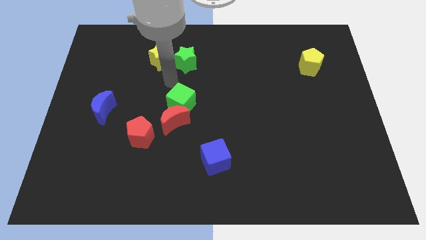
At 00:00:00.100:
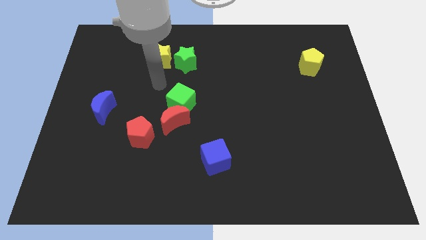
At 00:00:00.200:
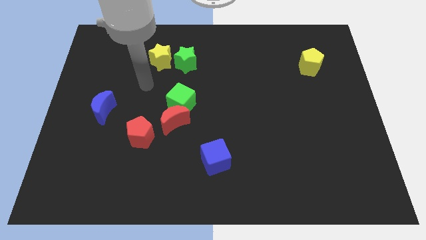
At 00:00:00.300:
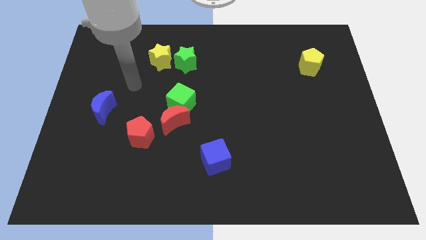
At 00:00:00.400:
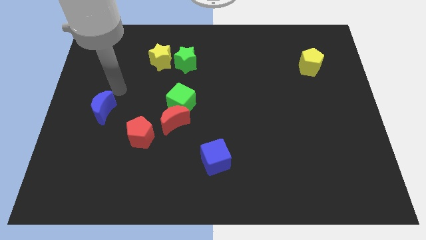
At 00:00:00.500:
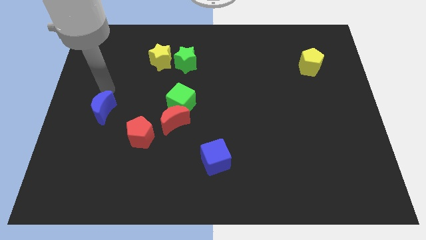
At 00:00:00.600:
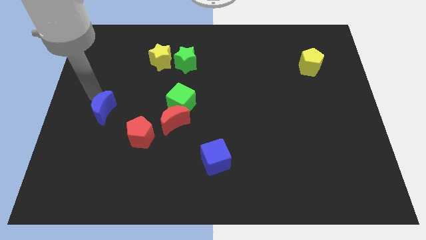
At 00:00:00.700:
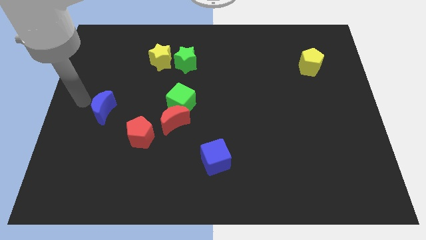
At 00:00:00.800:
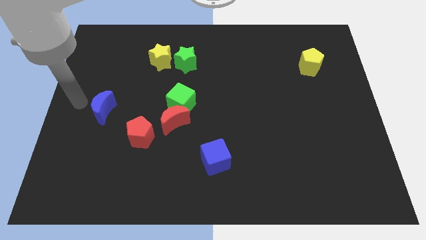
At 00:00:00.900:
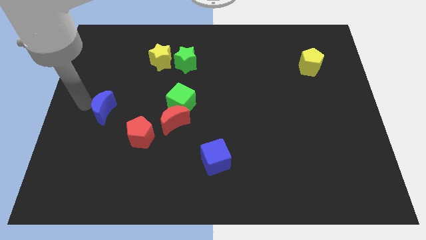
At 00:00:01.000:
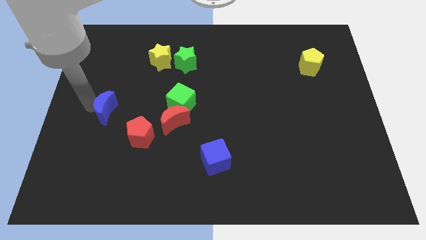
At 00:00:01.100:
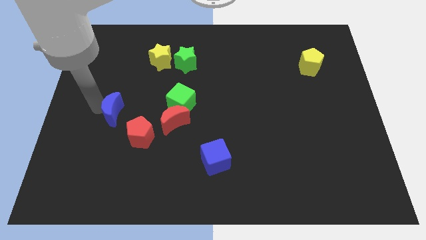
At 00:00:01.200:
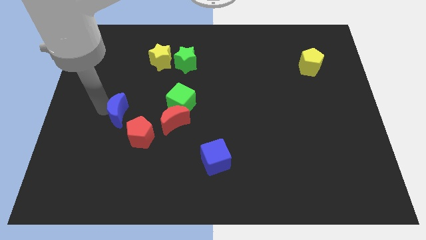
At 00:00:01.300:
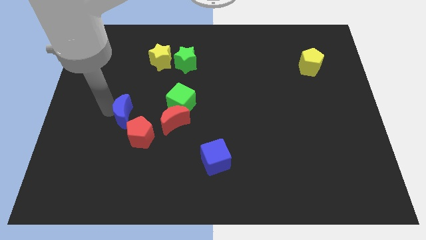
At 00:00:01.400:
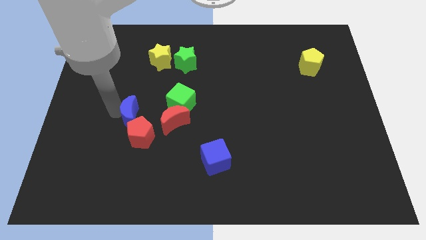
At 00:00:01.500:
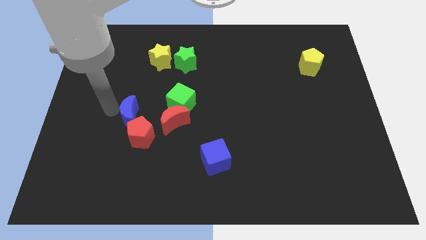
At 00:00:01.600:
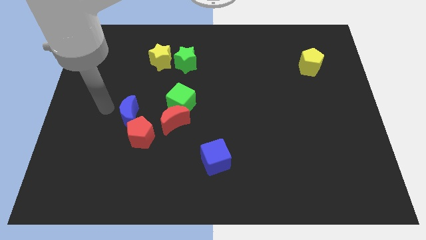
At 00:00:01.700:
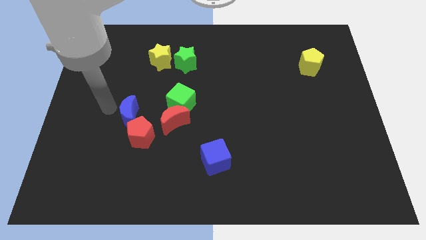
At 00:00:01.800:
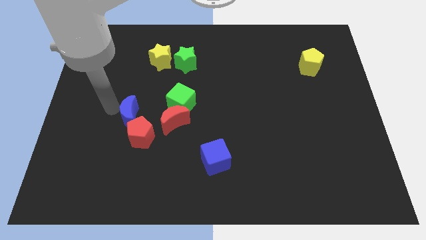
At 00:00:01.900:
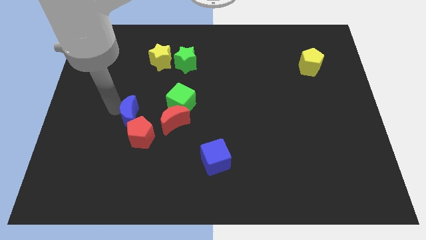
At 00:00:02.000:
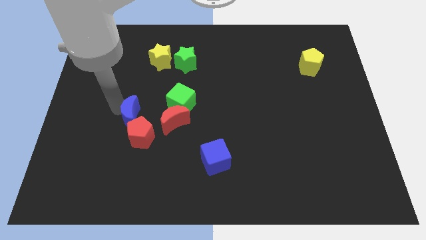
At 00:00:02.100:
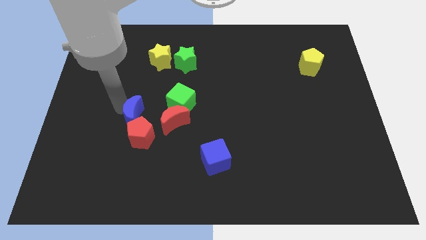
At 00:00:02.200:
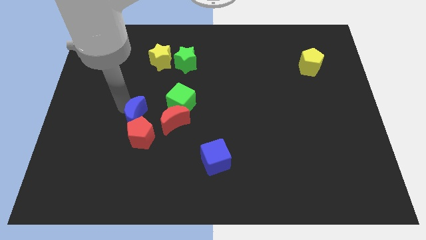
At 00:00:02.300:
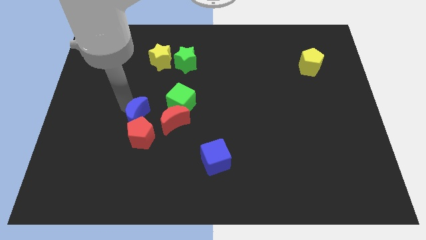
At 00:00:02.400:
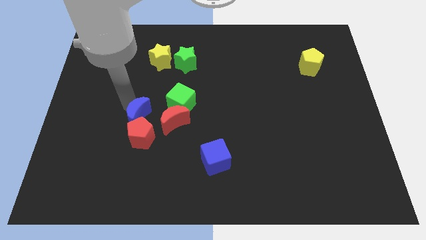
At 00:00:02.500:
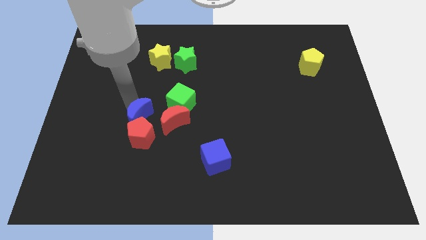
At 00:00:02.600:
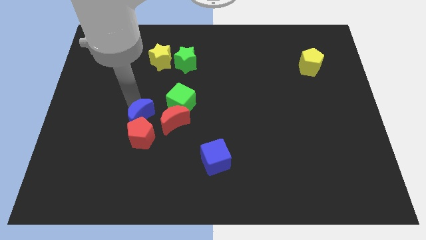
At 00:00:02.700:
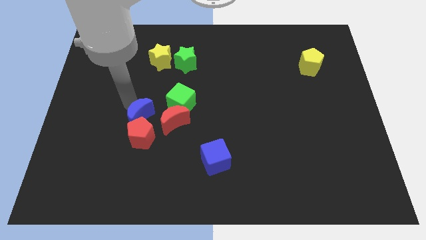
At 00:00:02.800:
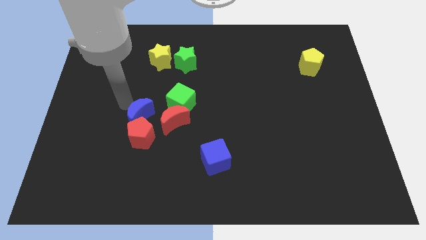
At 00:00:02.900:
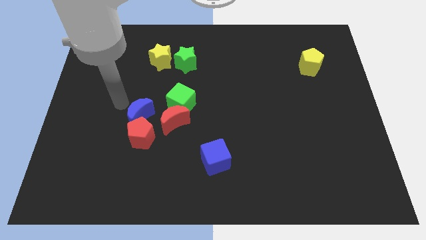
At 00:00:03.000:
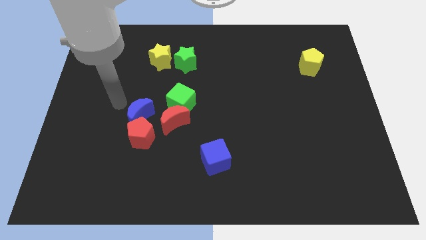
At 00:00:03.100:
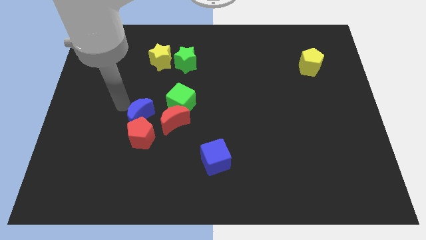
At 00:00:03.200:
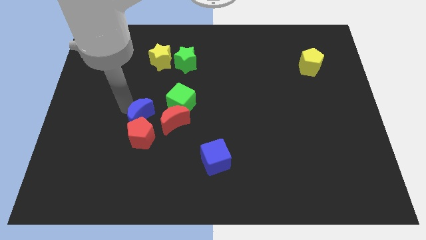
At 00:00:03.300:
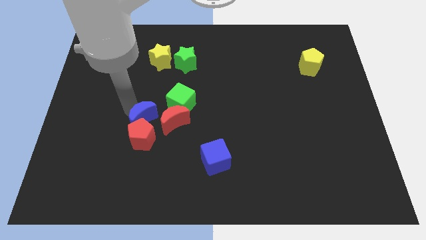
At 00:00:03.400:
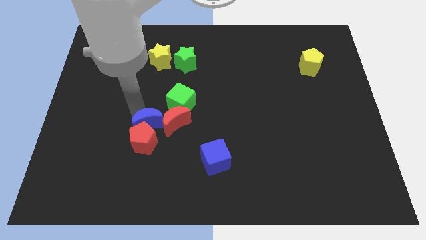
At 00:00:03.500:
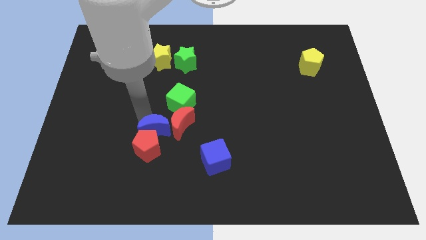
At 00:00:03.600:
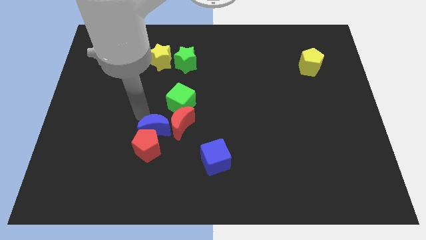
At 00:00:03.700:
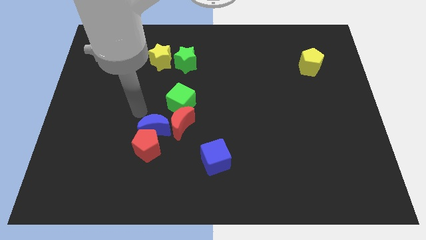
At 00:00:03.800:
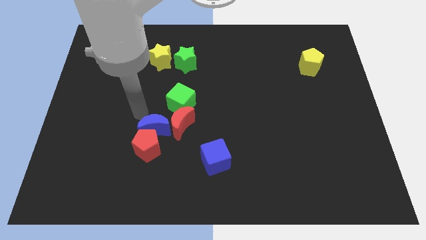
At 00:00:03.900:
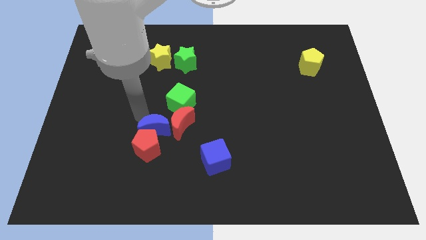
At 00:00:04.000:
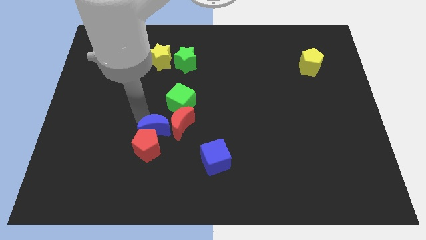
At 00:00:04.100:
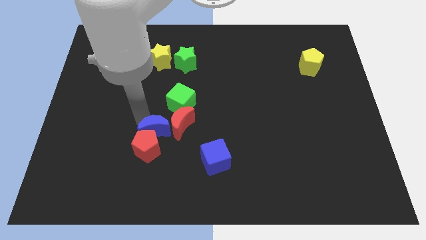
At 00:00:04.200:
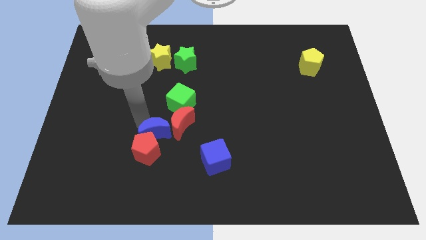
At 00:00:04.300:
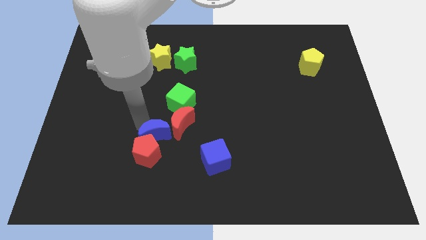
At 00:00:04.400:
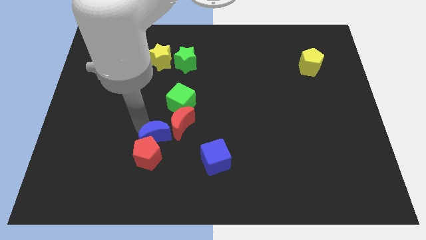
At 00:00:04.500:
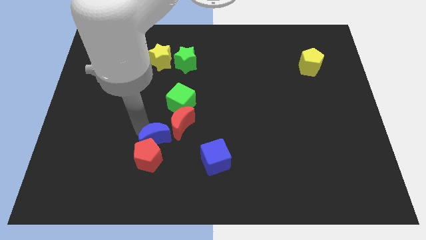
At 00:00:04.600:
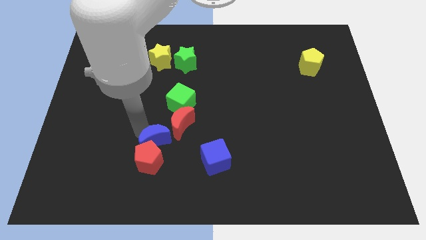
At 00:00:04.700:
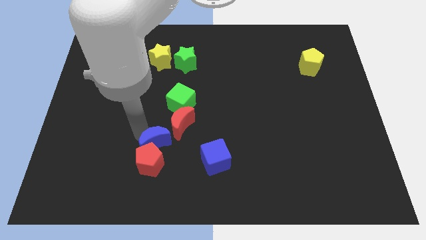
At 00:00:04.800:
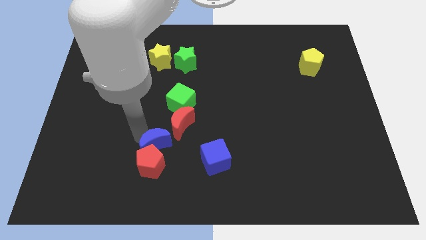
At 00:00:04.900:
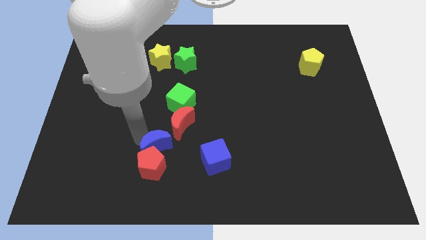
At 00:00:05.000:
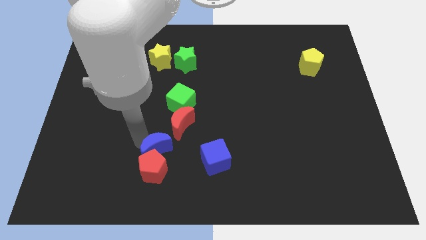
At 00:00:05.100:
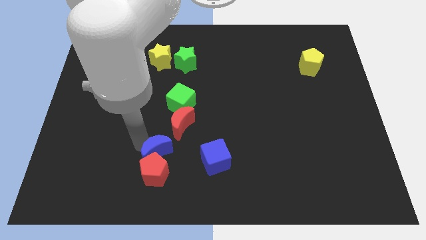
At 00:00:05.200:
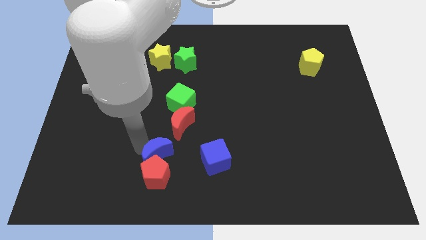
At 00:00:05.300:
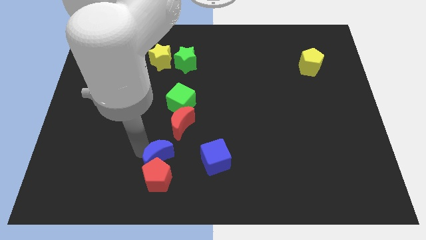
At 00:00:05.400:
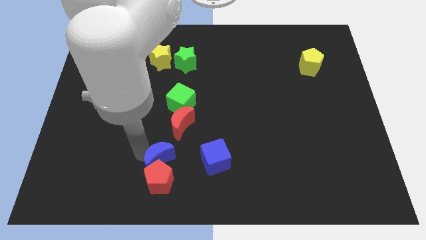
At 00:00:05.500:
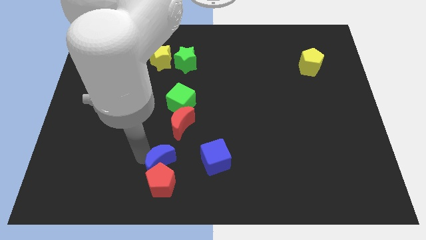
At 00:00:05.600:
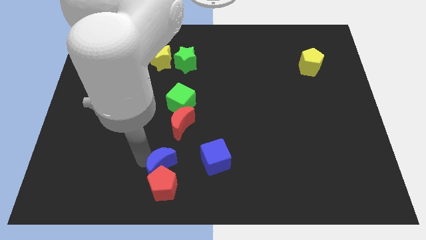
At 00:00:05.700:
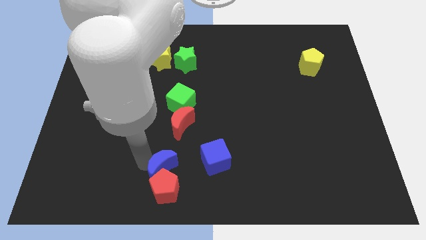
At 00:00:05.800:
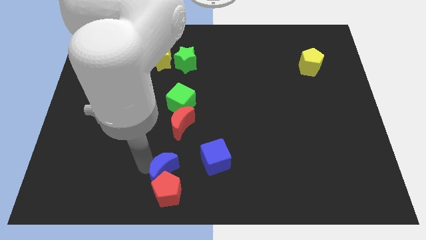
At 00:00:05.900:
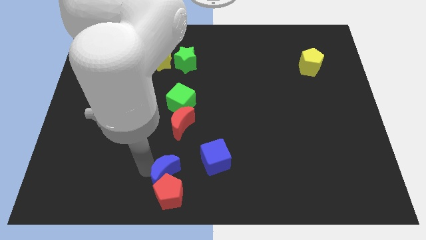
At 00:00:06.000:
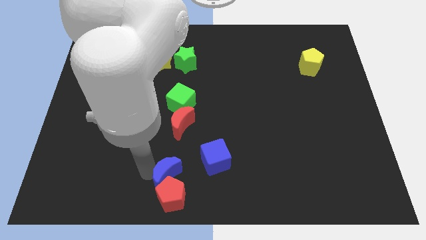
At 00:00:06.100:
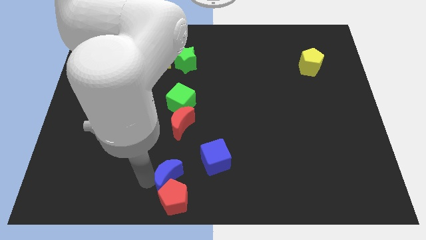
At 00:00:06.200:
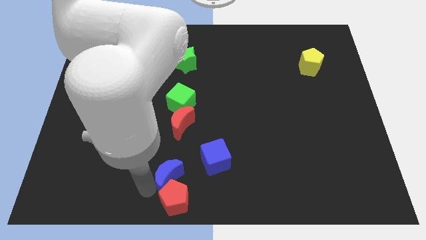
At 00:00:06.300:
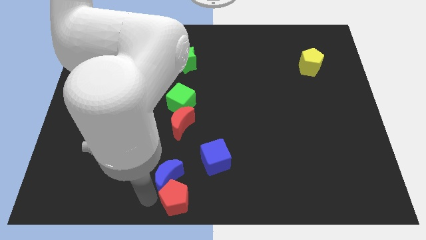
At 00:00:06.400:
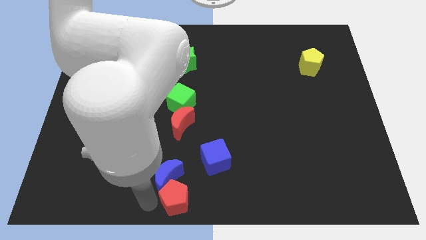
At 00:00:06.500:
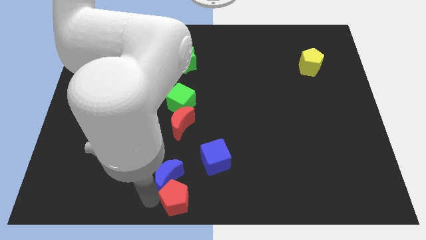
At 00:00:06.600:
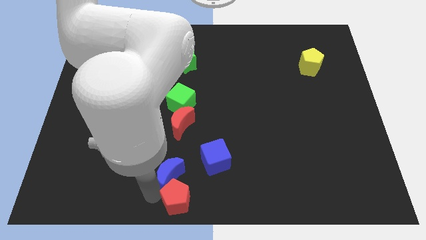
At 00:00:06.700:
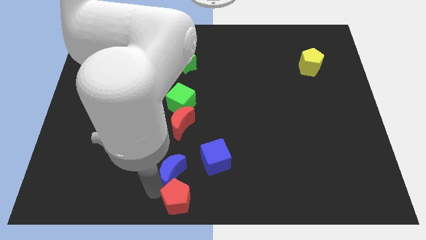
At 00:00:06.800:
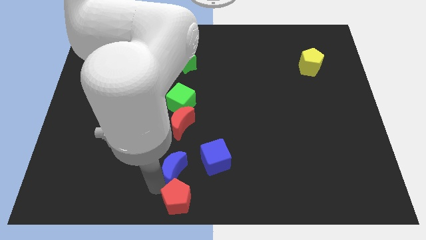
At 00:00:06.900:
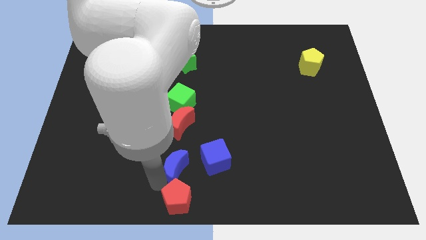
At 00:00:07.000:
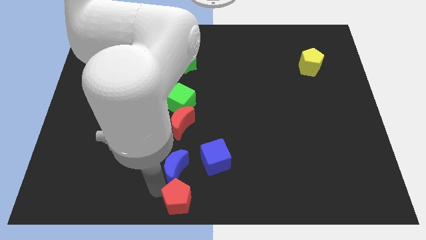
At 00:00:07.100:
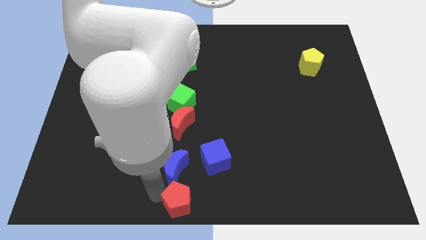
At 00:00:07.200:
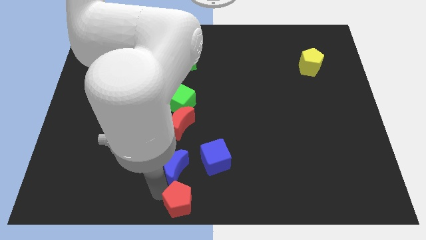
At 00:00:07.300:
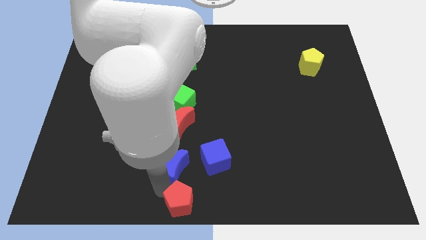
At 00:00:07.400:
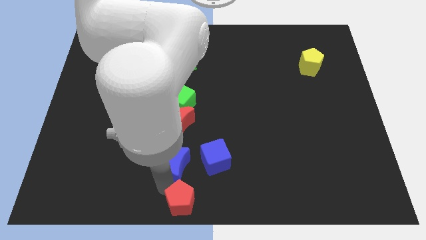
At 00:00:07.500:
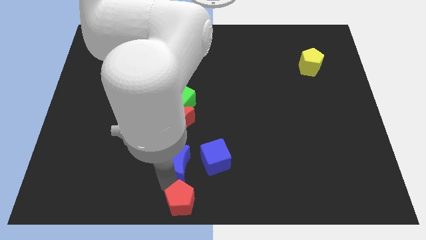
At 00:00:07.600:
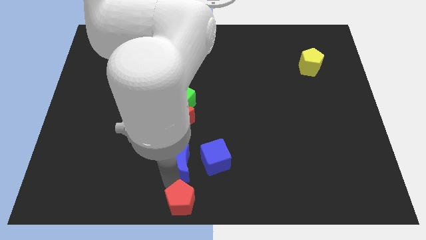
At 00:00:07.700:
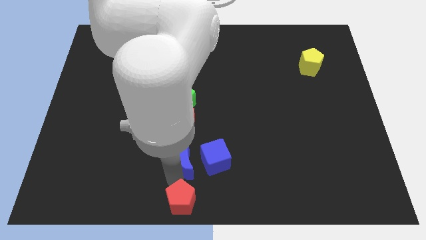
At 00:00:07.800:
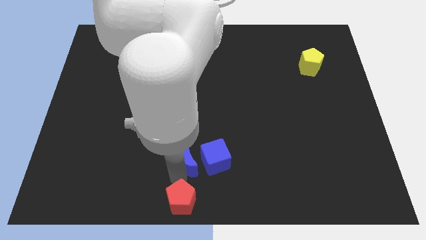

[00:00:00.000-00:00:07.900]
put the blue moon to the blue cube
